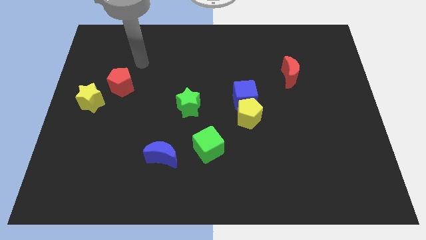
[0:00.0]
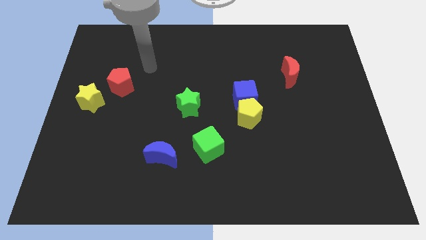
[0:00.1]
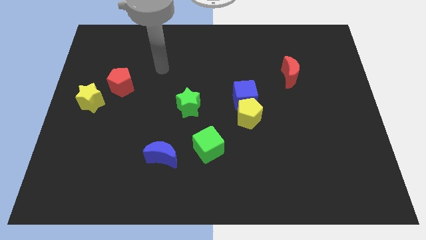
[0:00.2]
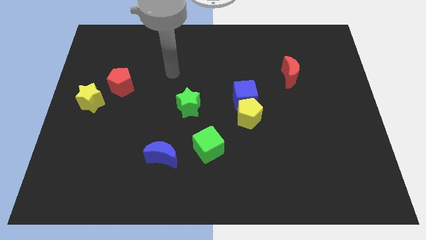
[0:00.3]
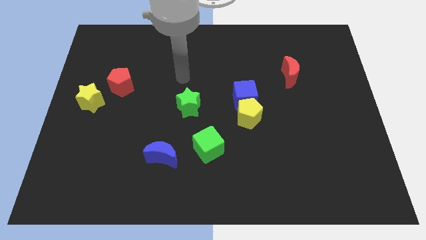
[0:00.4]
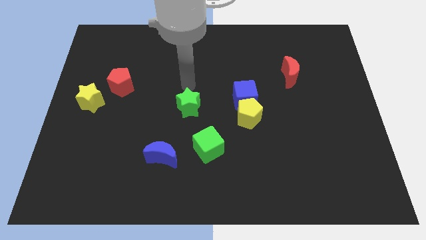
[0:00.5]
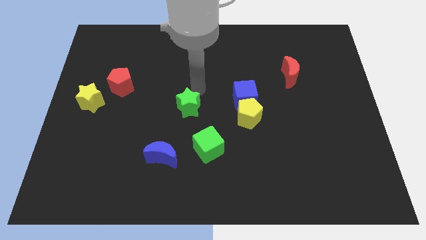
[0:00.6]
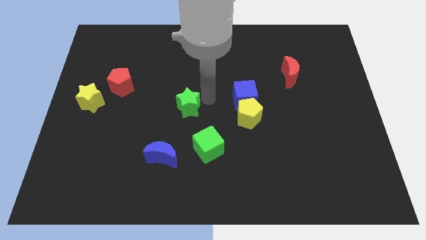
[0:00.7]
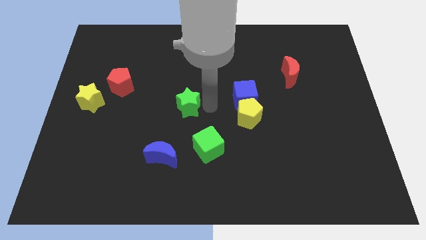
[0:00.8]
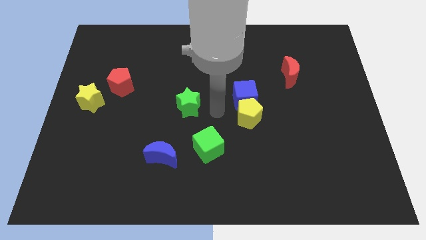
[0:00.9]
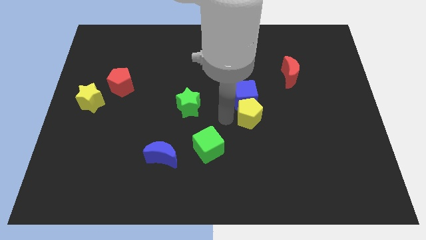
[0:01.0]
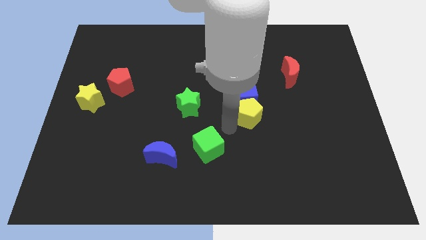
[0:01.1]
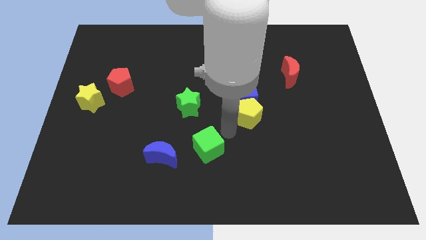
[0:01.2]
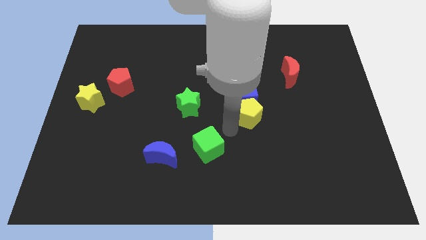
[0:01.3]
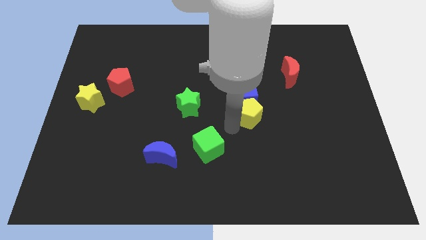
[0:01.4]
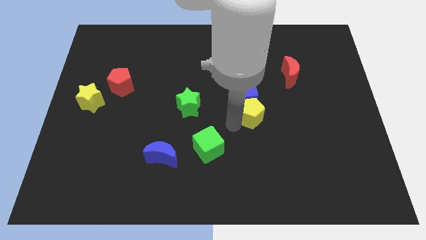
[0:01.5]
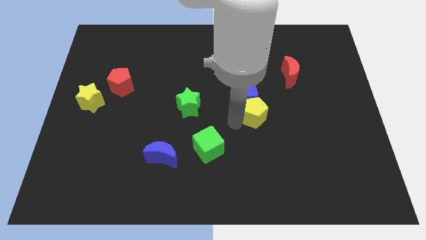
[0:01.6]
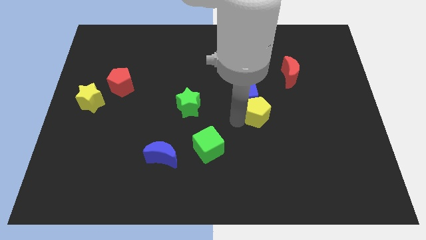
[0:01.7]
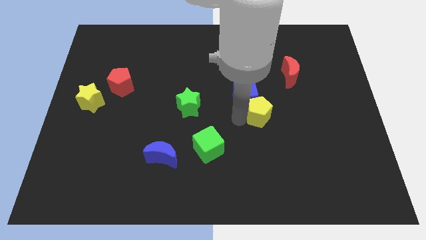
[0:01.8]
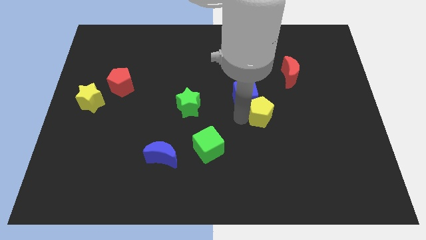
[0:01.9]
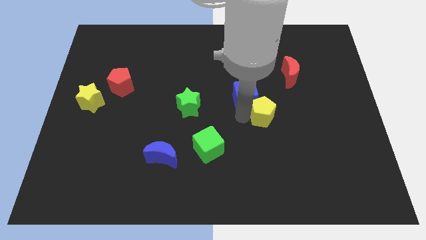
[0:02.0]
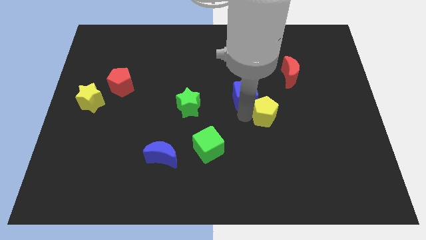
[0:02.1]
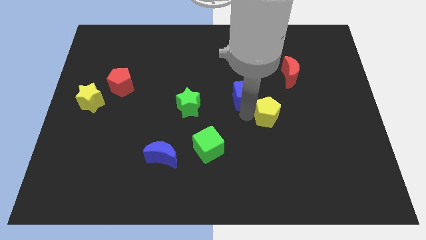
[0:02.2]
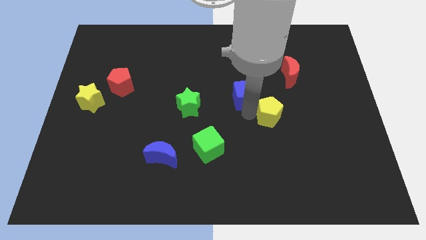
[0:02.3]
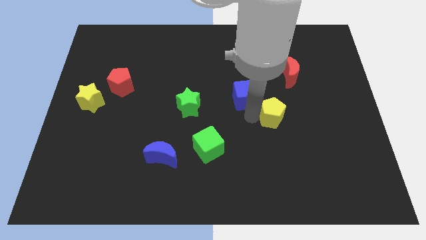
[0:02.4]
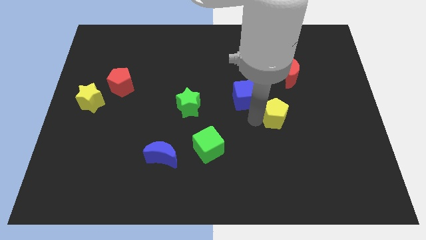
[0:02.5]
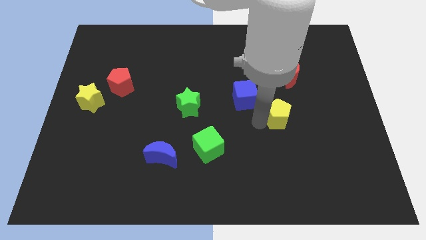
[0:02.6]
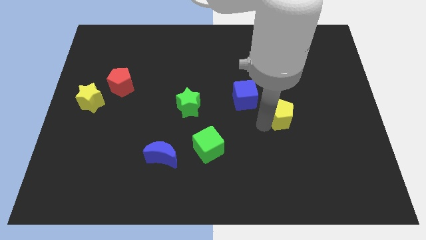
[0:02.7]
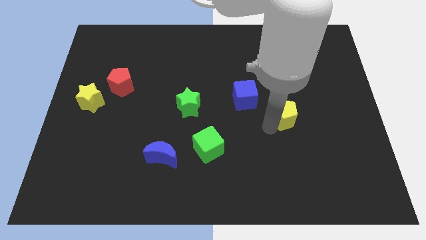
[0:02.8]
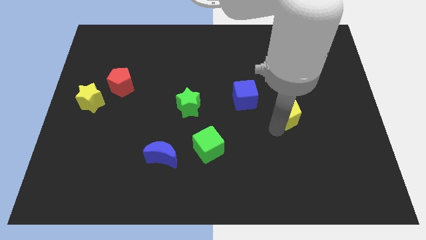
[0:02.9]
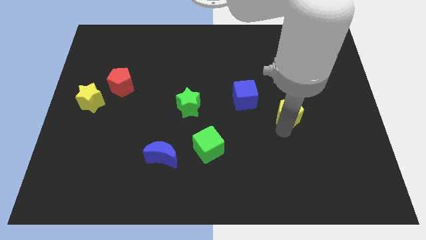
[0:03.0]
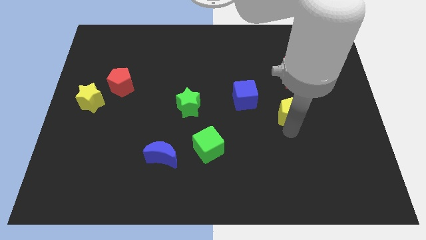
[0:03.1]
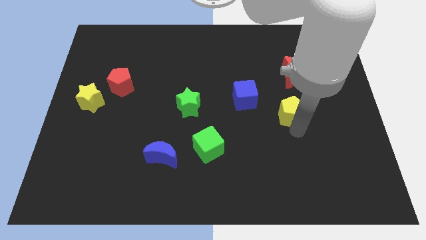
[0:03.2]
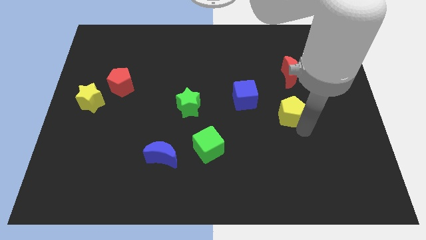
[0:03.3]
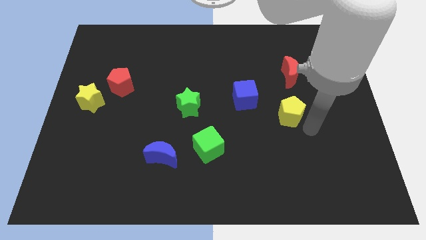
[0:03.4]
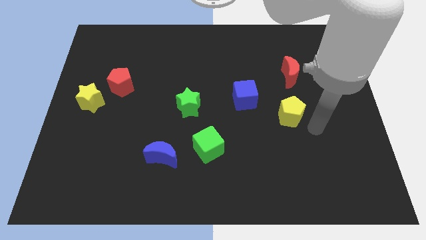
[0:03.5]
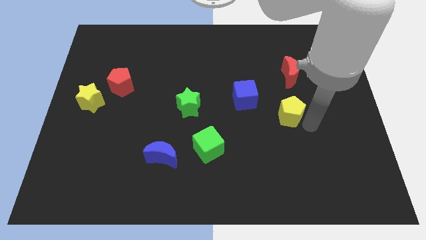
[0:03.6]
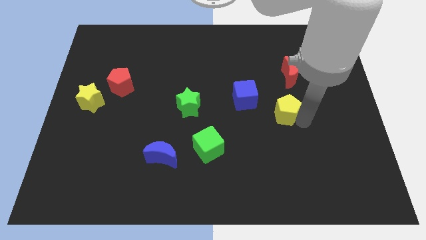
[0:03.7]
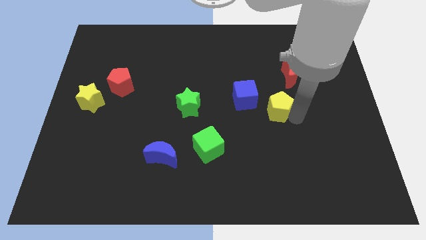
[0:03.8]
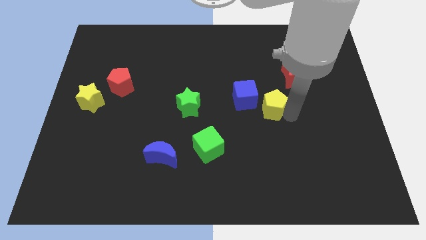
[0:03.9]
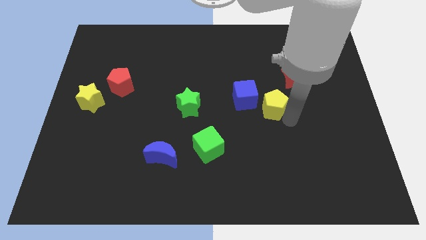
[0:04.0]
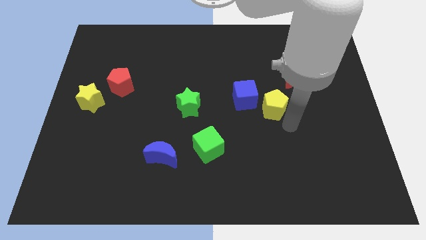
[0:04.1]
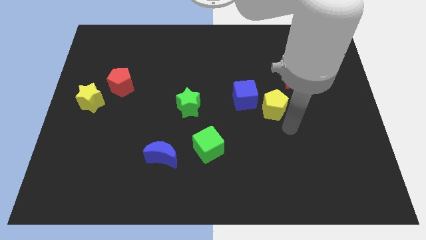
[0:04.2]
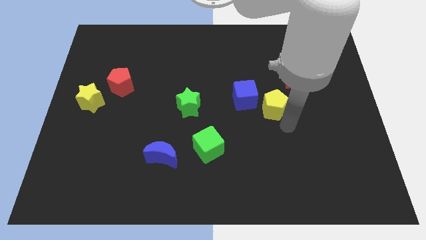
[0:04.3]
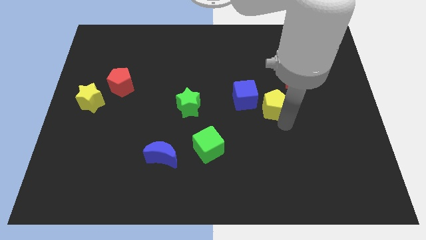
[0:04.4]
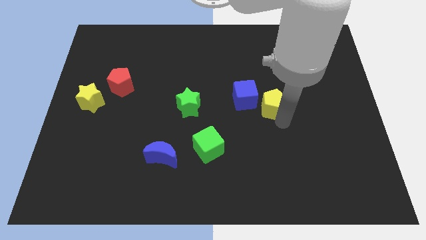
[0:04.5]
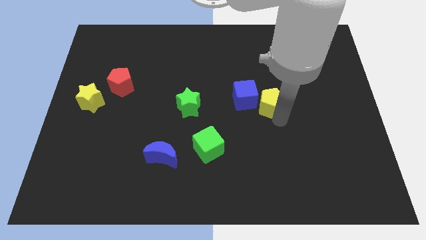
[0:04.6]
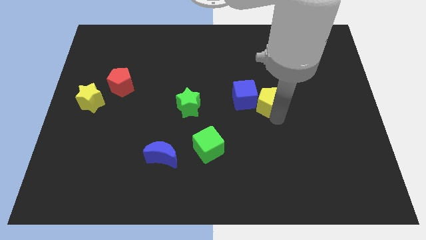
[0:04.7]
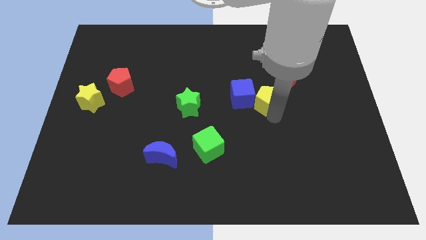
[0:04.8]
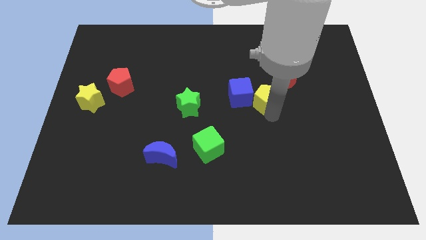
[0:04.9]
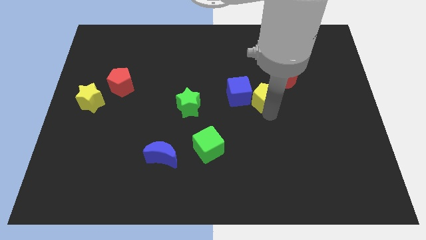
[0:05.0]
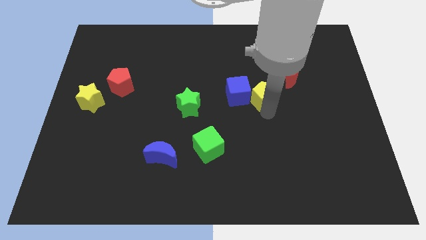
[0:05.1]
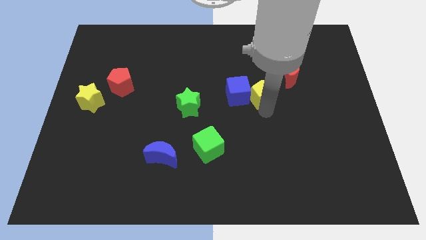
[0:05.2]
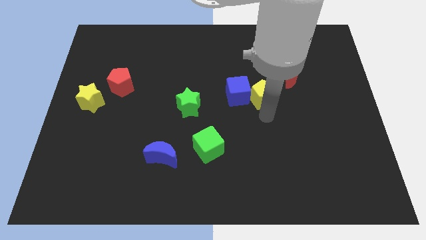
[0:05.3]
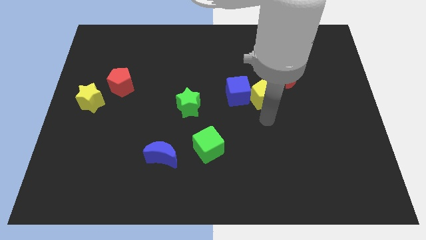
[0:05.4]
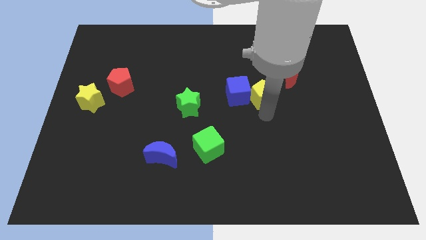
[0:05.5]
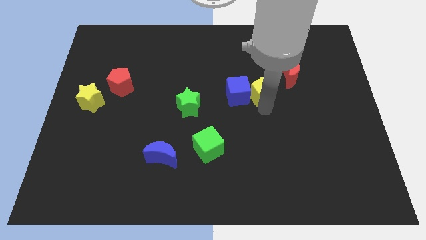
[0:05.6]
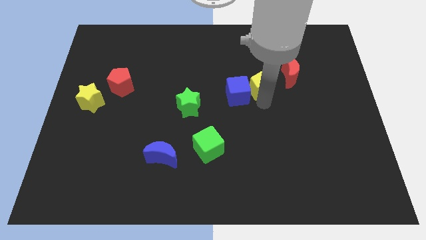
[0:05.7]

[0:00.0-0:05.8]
push the yellow pentagon upwards a bit

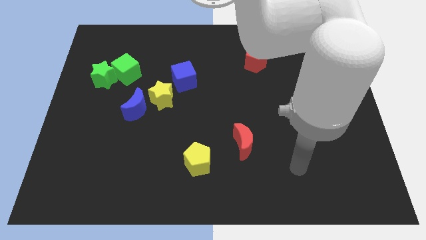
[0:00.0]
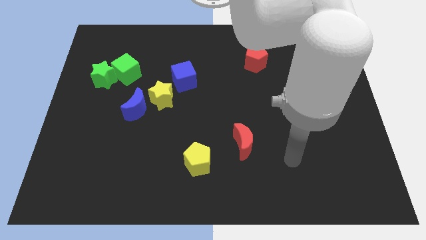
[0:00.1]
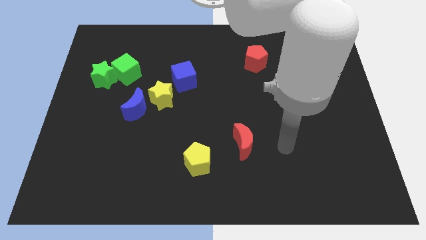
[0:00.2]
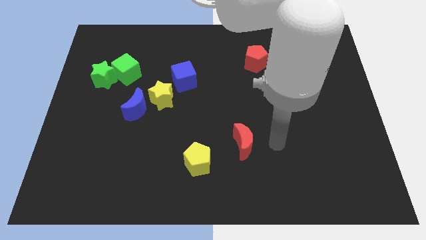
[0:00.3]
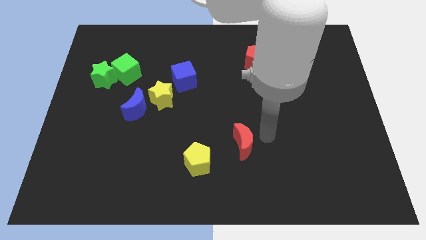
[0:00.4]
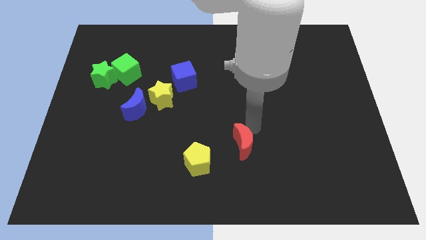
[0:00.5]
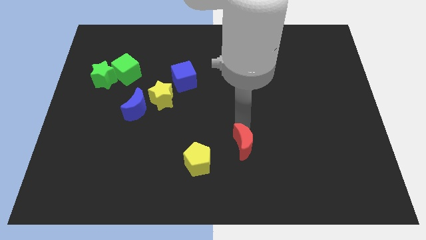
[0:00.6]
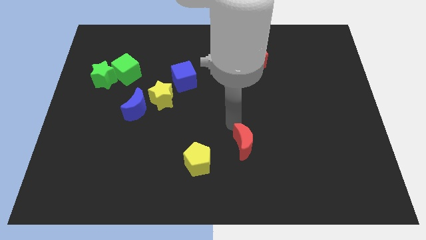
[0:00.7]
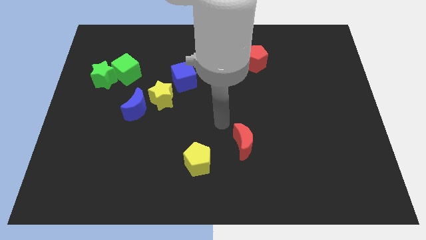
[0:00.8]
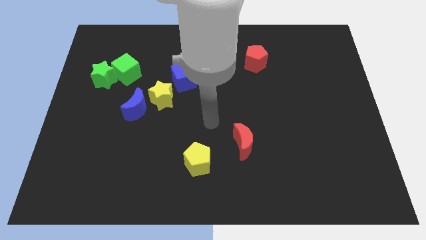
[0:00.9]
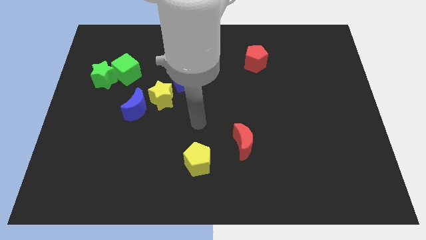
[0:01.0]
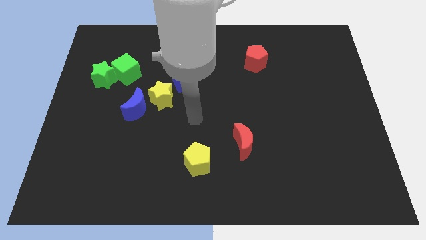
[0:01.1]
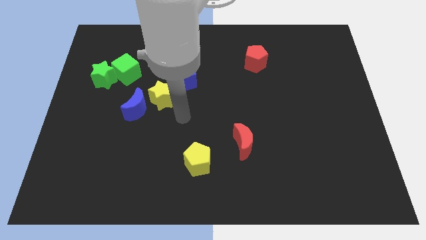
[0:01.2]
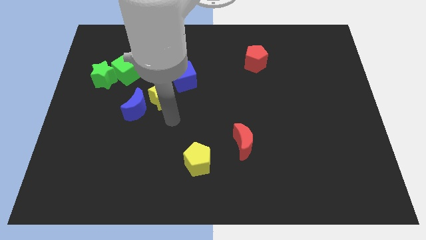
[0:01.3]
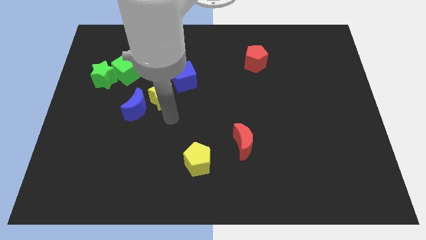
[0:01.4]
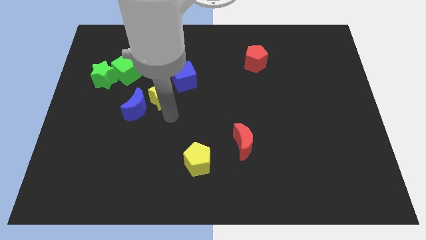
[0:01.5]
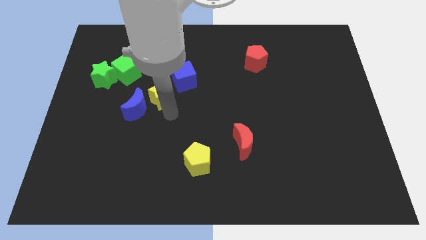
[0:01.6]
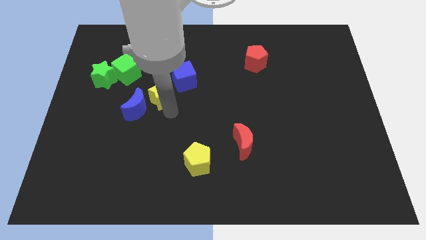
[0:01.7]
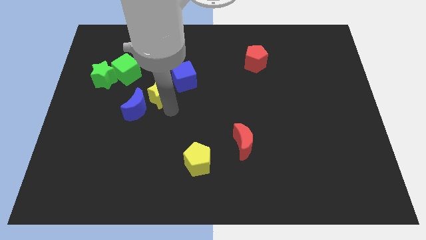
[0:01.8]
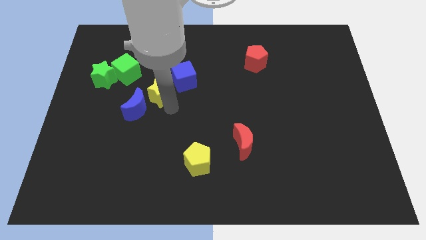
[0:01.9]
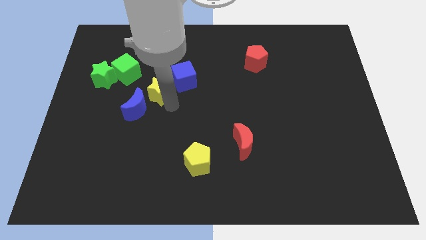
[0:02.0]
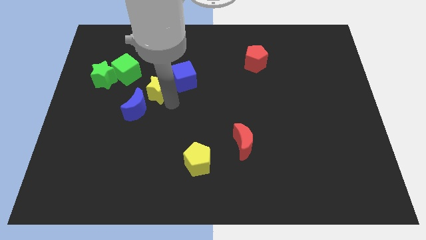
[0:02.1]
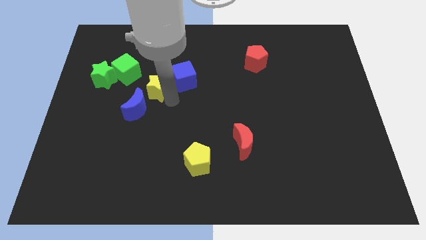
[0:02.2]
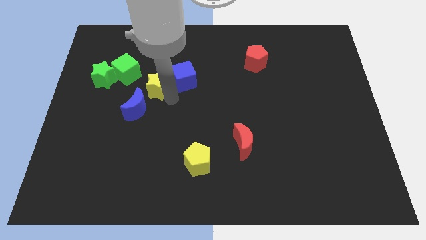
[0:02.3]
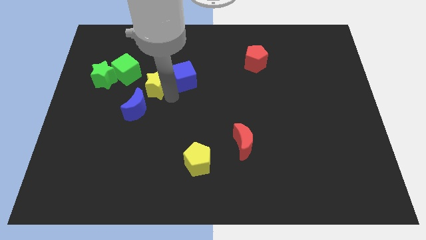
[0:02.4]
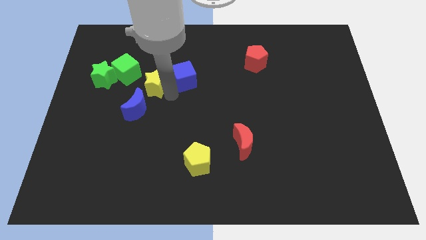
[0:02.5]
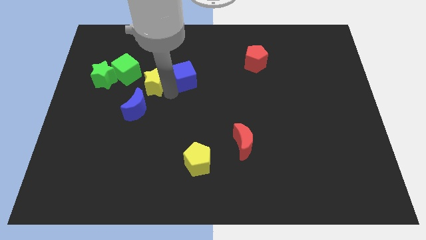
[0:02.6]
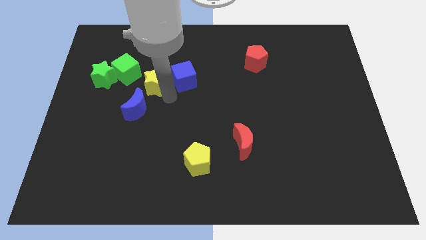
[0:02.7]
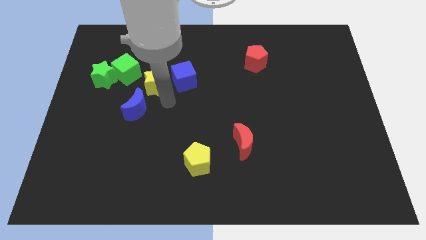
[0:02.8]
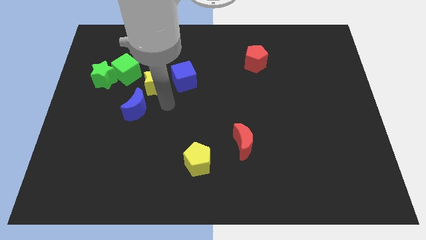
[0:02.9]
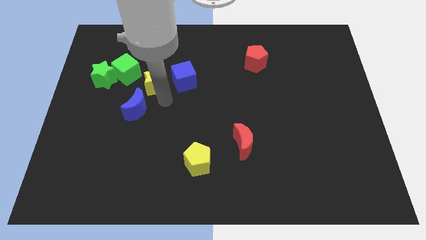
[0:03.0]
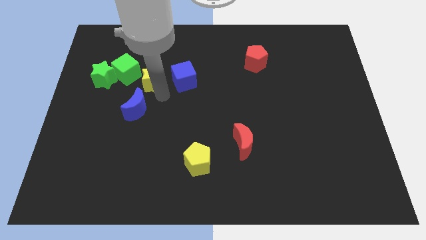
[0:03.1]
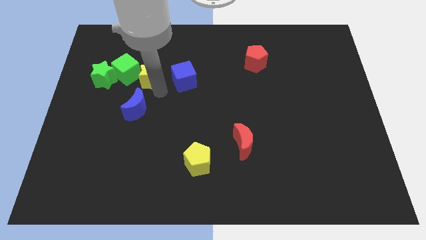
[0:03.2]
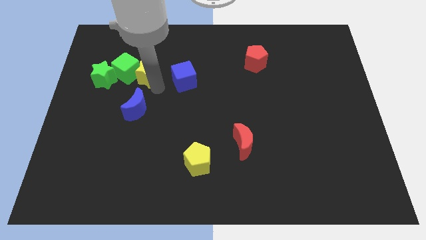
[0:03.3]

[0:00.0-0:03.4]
push the yellow star slightly upwards and then left
